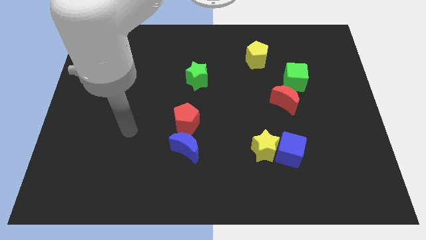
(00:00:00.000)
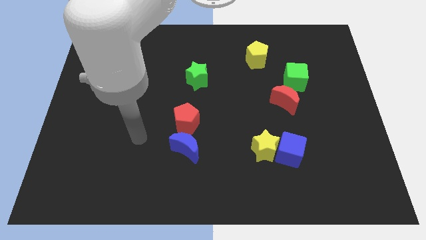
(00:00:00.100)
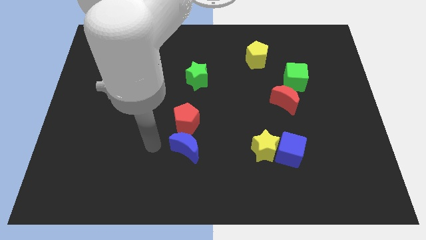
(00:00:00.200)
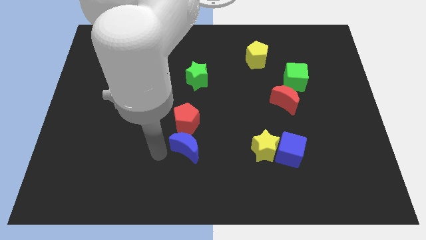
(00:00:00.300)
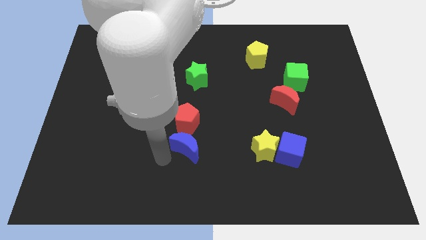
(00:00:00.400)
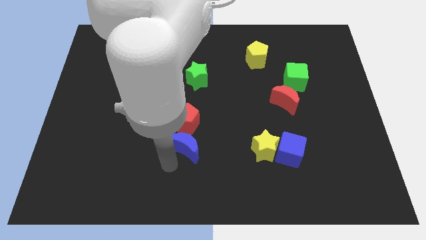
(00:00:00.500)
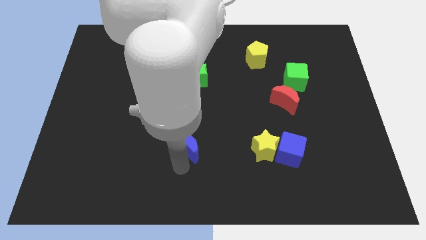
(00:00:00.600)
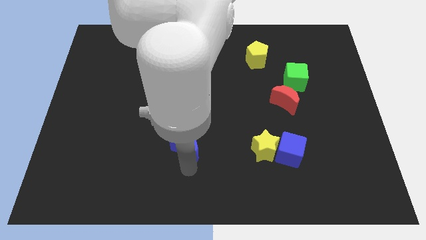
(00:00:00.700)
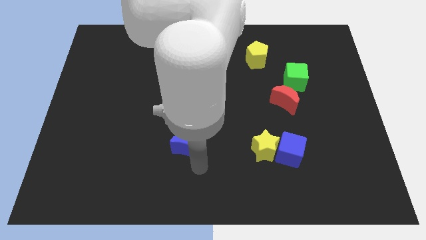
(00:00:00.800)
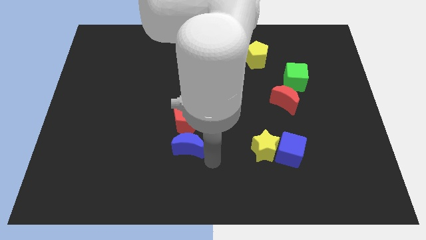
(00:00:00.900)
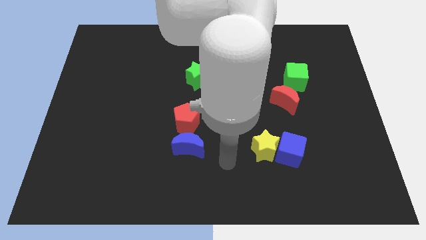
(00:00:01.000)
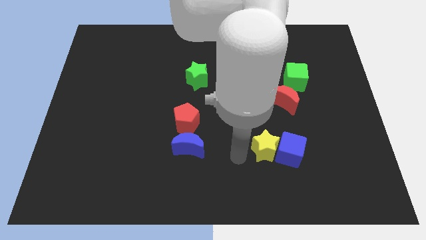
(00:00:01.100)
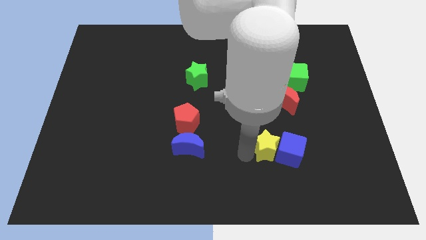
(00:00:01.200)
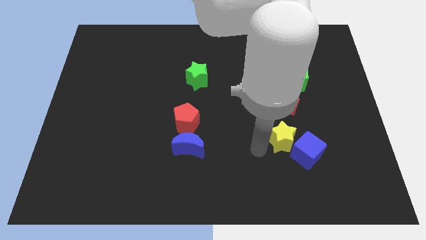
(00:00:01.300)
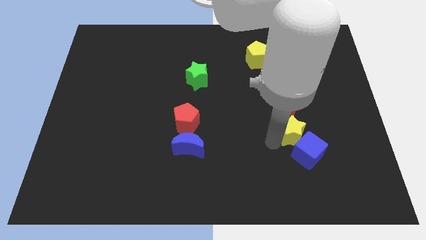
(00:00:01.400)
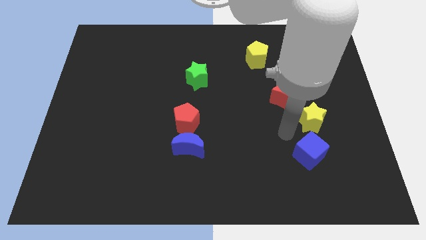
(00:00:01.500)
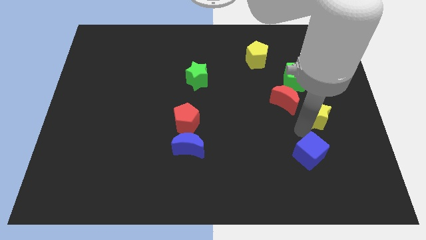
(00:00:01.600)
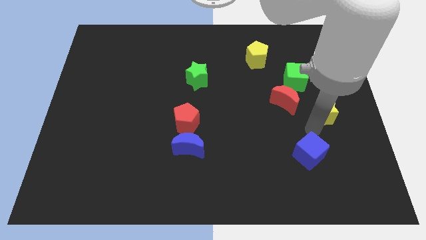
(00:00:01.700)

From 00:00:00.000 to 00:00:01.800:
move the blue cube away from the yellow star

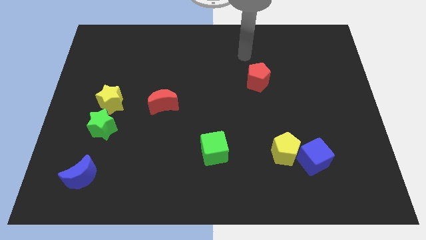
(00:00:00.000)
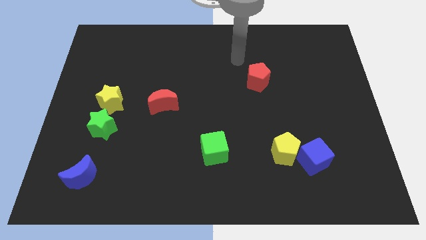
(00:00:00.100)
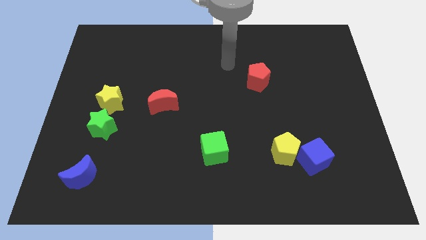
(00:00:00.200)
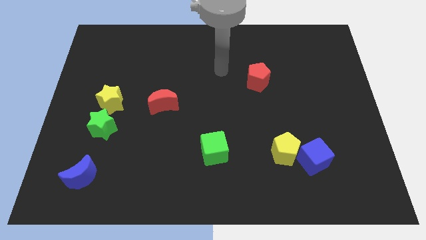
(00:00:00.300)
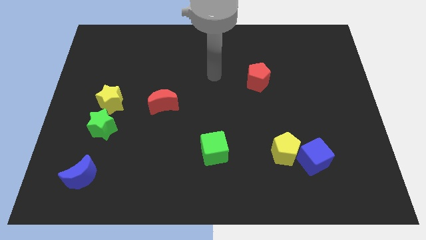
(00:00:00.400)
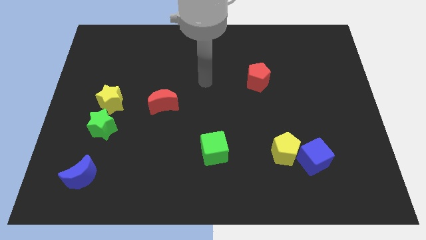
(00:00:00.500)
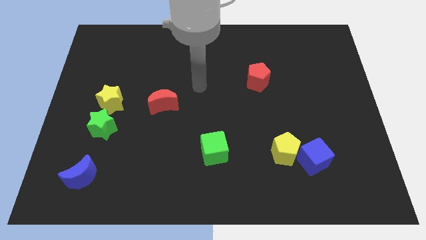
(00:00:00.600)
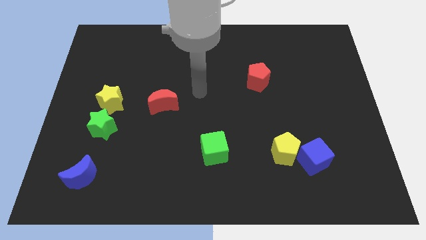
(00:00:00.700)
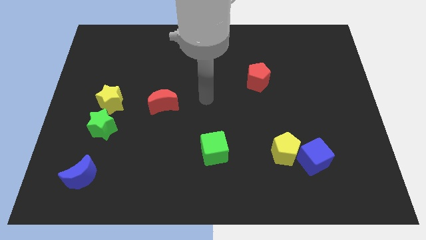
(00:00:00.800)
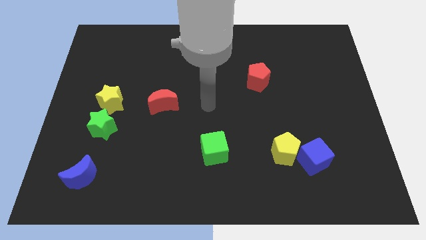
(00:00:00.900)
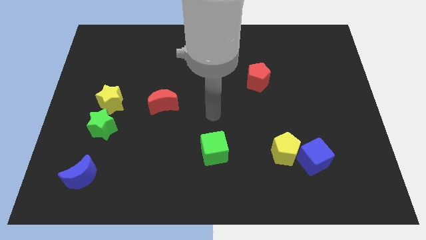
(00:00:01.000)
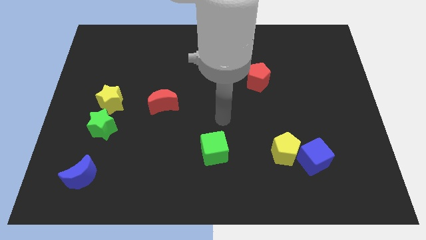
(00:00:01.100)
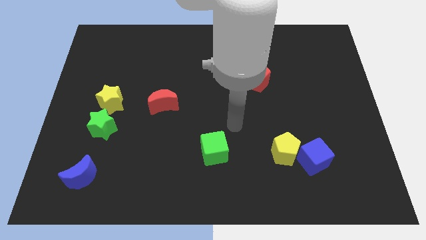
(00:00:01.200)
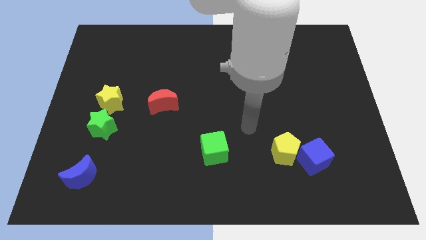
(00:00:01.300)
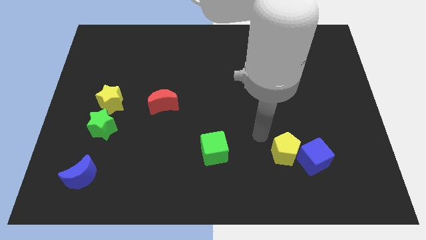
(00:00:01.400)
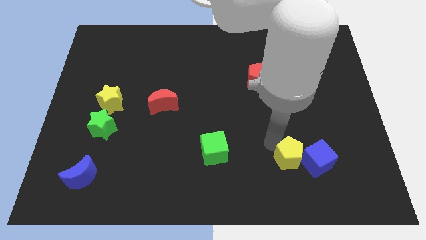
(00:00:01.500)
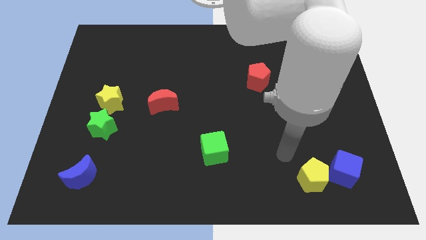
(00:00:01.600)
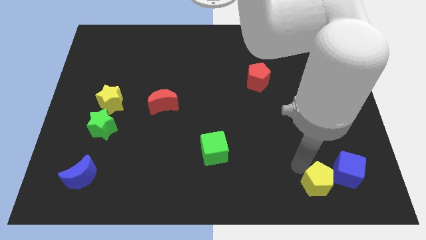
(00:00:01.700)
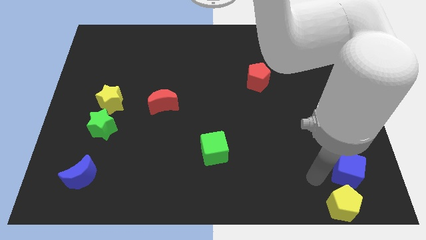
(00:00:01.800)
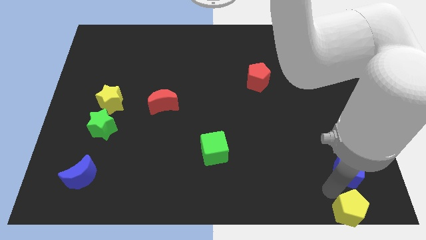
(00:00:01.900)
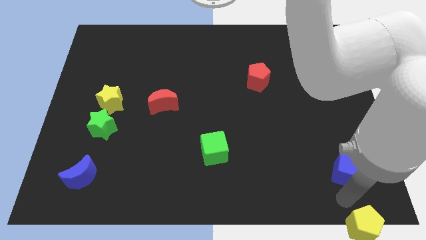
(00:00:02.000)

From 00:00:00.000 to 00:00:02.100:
separate the blue cube from the yellow pentagon

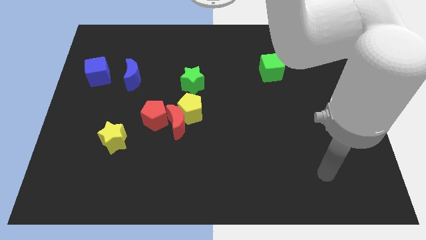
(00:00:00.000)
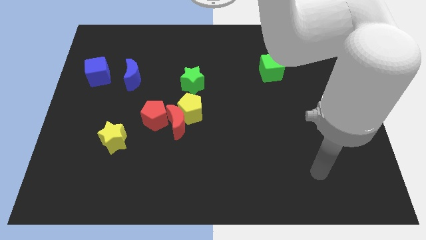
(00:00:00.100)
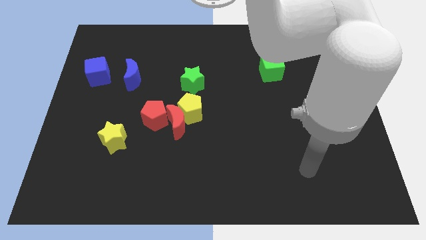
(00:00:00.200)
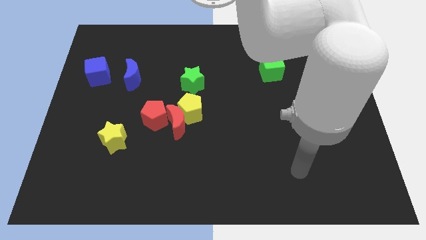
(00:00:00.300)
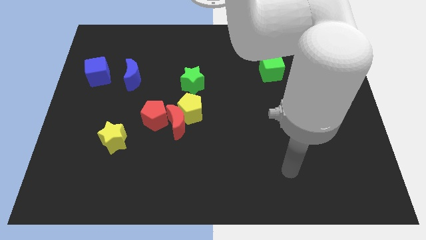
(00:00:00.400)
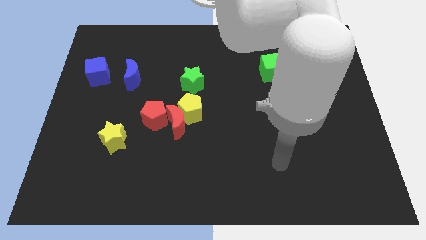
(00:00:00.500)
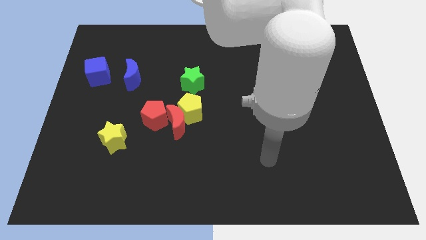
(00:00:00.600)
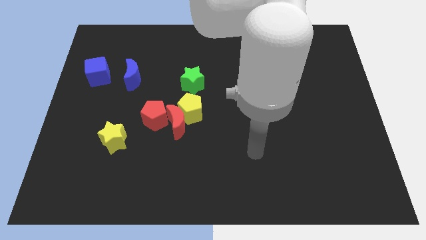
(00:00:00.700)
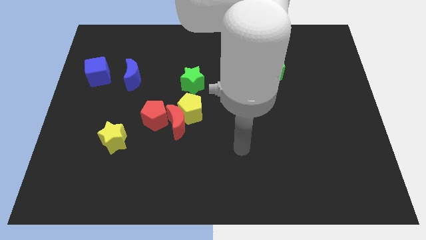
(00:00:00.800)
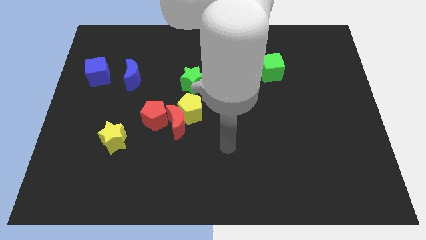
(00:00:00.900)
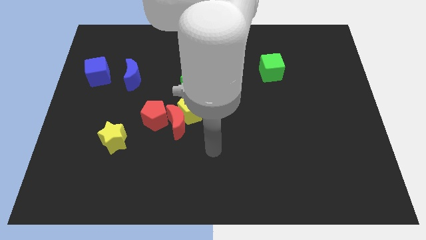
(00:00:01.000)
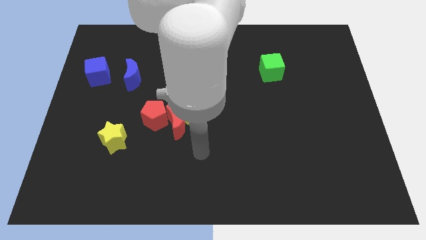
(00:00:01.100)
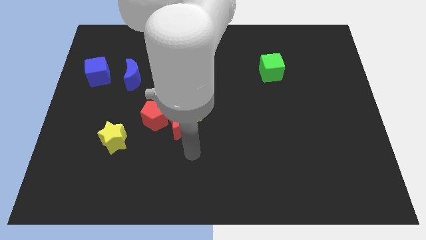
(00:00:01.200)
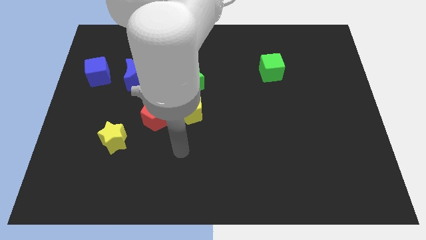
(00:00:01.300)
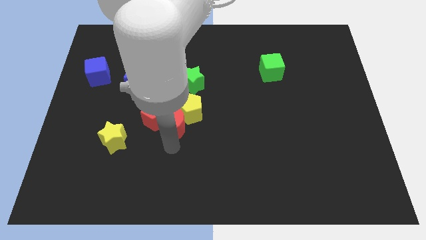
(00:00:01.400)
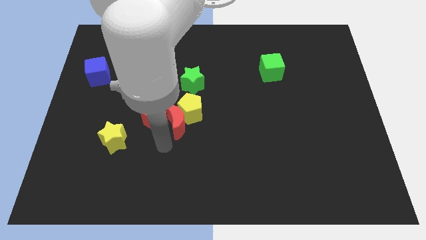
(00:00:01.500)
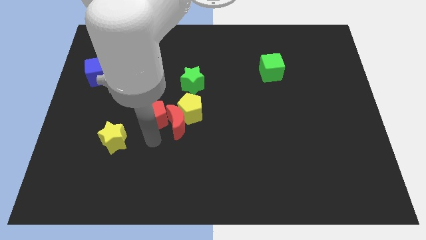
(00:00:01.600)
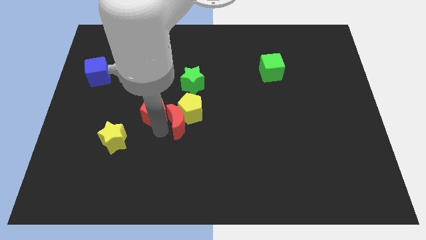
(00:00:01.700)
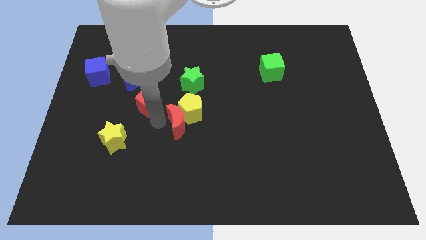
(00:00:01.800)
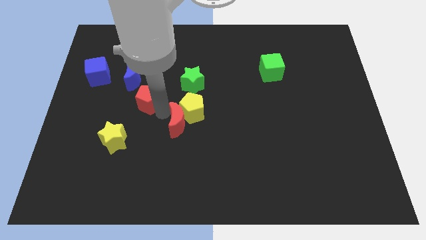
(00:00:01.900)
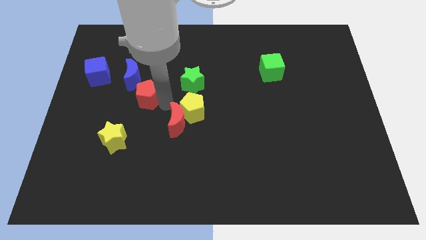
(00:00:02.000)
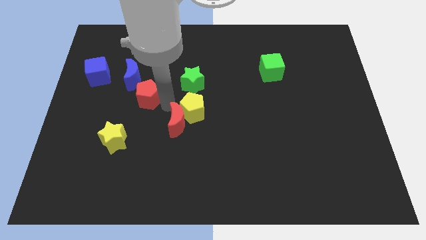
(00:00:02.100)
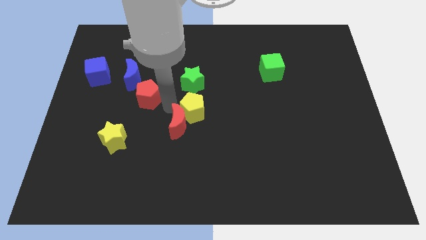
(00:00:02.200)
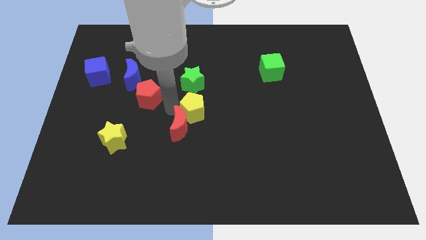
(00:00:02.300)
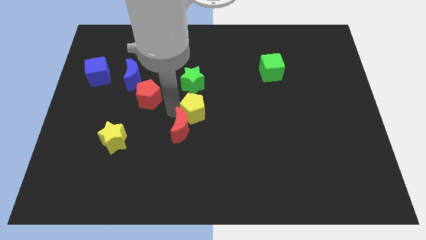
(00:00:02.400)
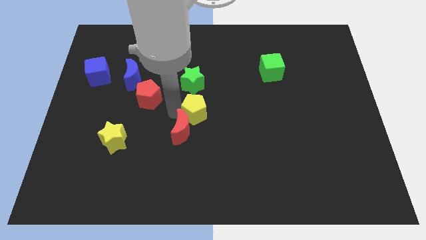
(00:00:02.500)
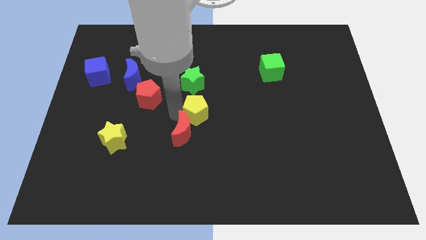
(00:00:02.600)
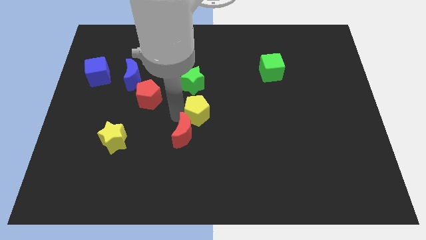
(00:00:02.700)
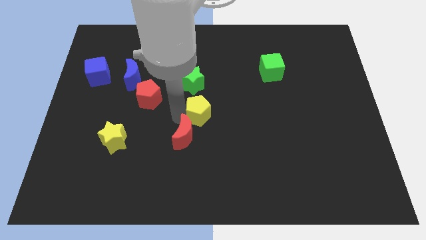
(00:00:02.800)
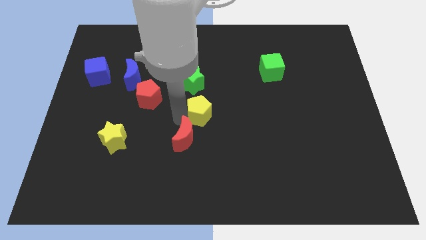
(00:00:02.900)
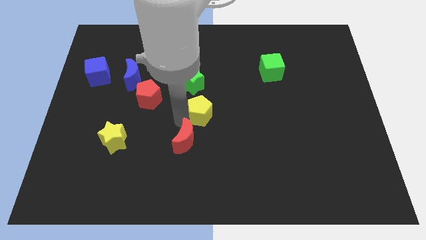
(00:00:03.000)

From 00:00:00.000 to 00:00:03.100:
pull the red moon apart from the yellow pentagon and red pentagon

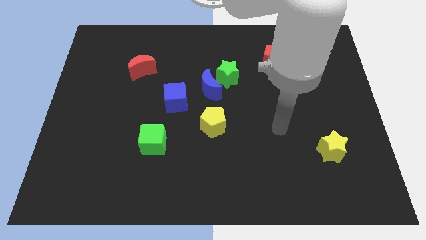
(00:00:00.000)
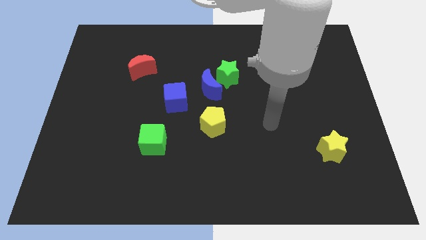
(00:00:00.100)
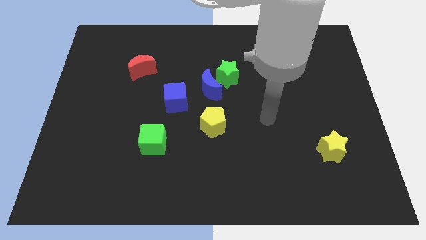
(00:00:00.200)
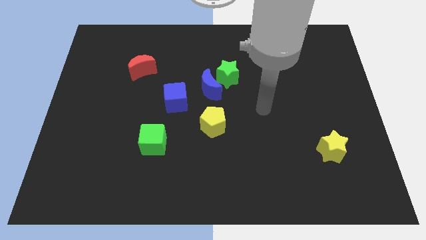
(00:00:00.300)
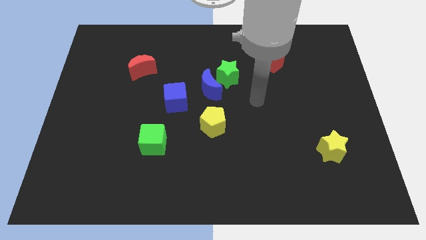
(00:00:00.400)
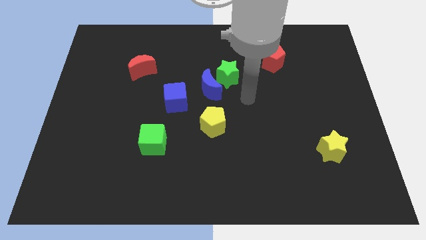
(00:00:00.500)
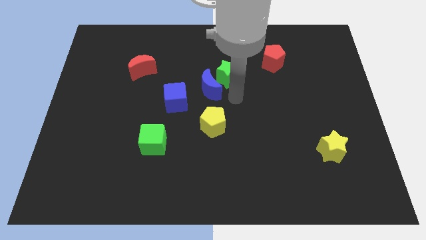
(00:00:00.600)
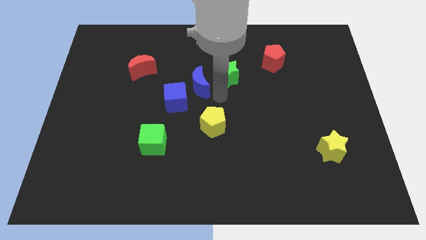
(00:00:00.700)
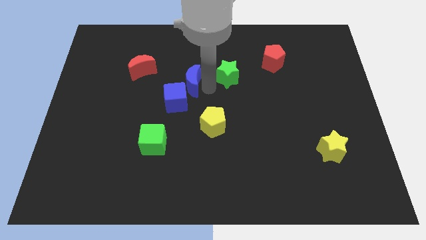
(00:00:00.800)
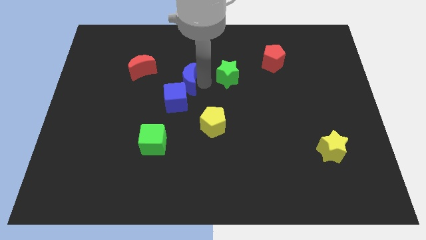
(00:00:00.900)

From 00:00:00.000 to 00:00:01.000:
pull the green star apart from the blue moon

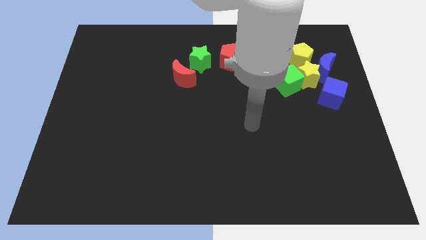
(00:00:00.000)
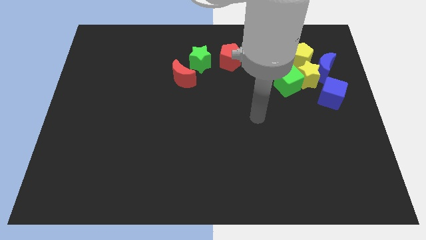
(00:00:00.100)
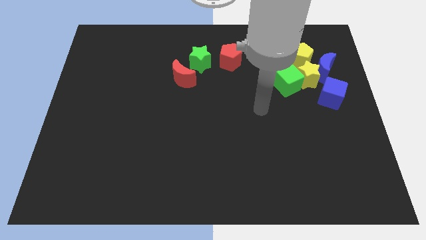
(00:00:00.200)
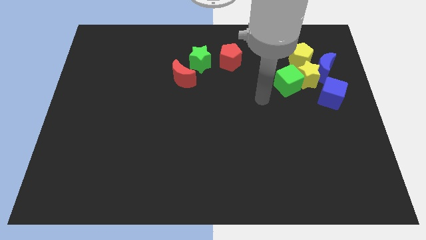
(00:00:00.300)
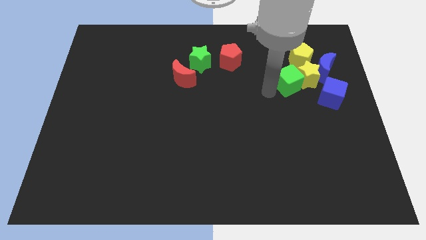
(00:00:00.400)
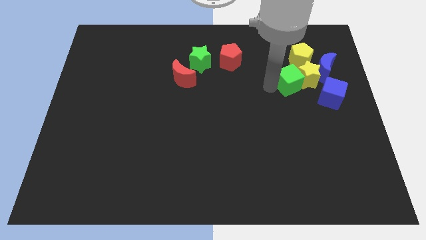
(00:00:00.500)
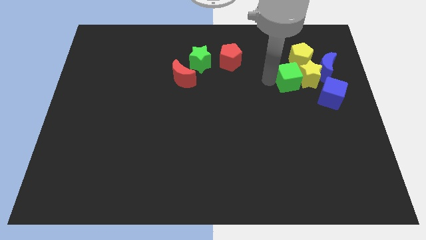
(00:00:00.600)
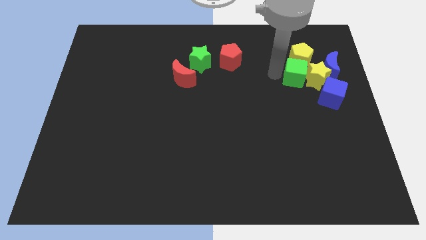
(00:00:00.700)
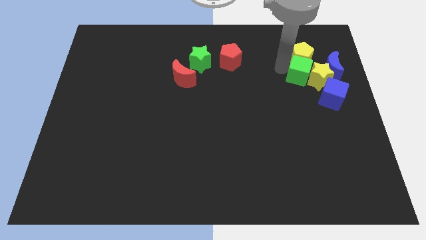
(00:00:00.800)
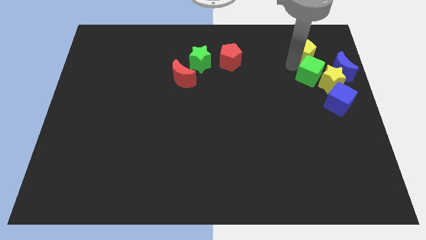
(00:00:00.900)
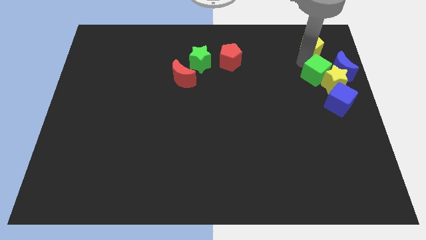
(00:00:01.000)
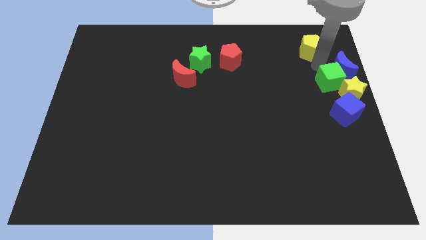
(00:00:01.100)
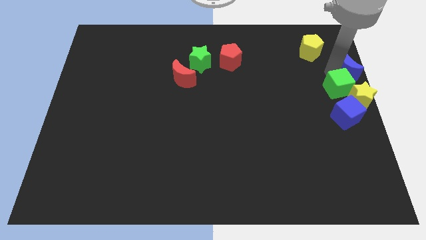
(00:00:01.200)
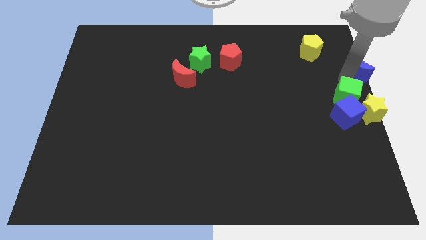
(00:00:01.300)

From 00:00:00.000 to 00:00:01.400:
separate the yellow star from the group
